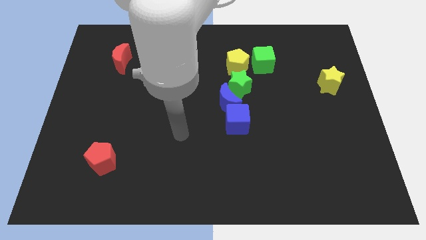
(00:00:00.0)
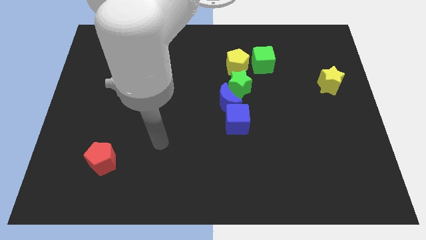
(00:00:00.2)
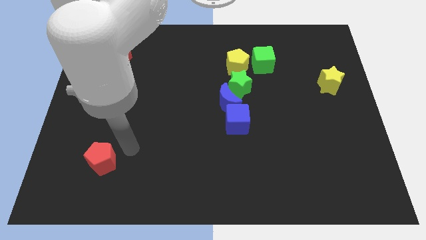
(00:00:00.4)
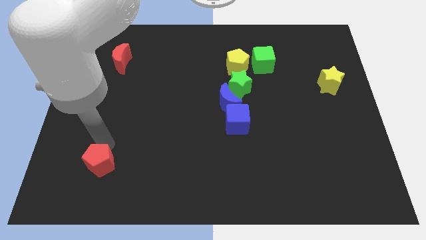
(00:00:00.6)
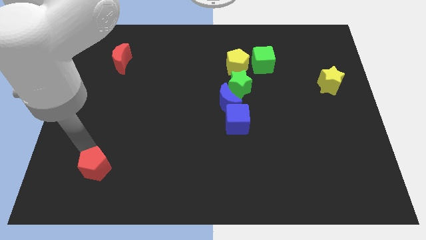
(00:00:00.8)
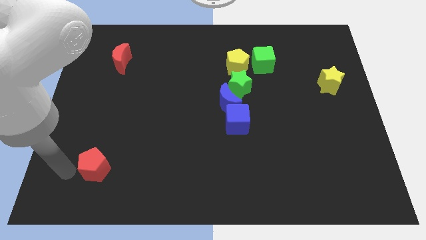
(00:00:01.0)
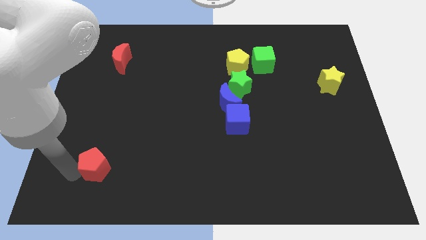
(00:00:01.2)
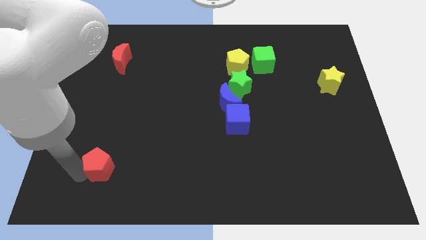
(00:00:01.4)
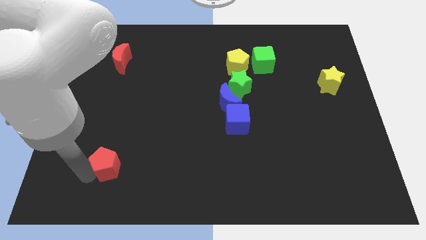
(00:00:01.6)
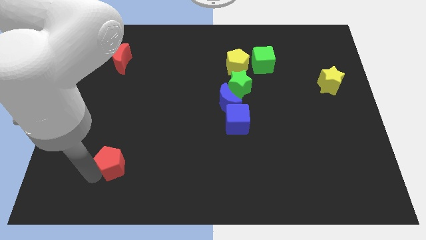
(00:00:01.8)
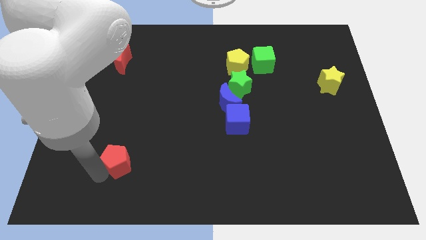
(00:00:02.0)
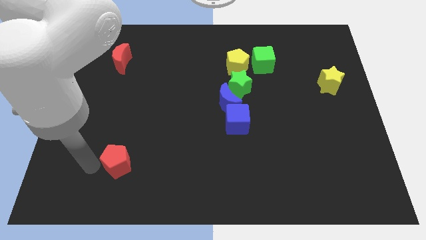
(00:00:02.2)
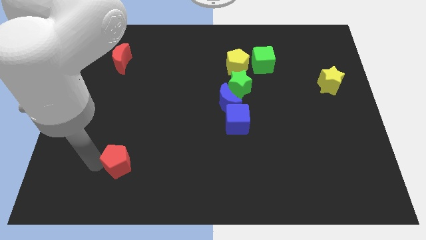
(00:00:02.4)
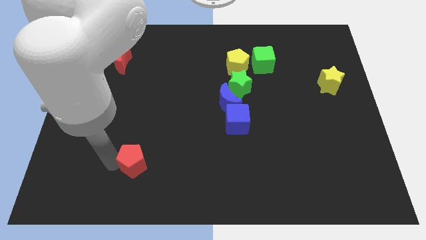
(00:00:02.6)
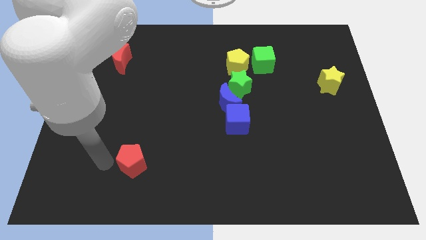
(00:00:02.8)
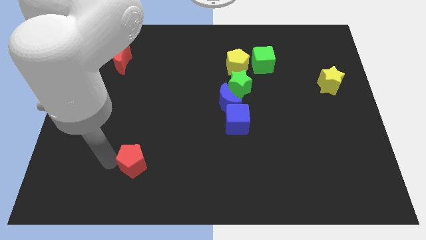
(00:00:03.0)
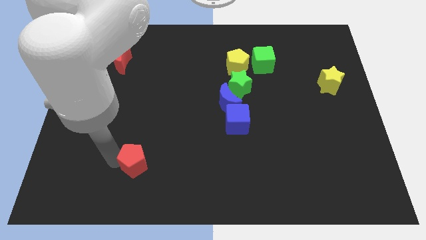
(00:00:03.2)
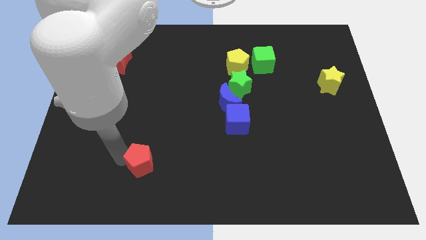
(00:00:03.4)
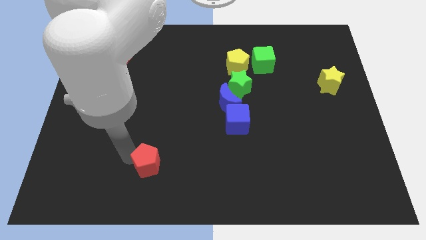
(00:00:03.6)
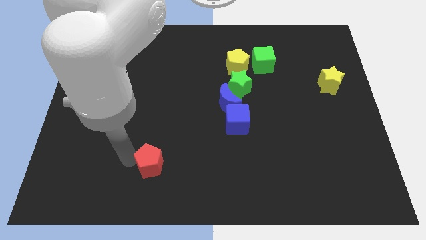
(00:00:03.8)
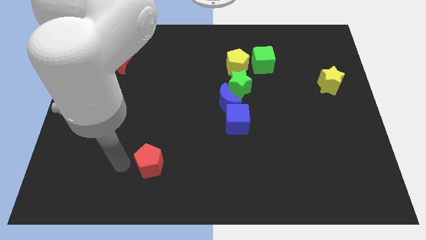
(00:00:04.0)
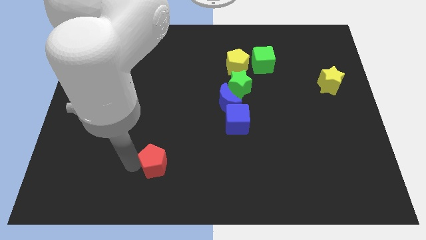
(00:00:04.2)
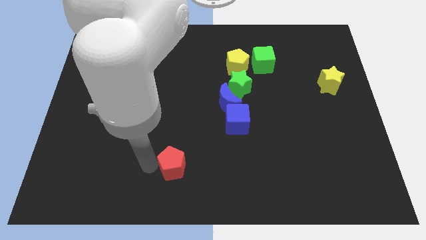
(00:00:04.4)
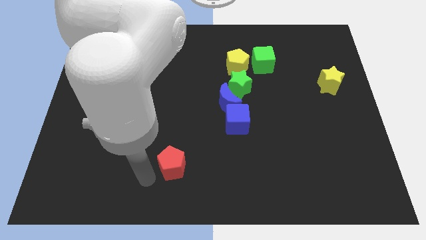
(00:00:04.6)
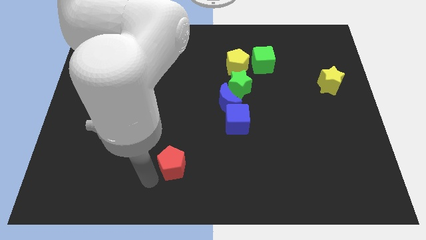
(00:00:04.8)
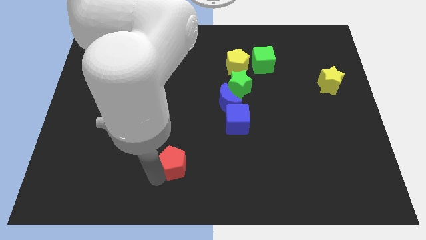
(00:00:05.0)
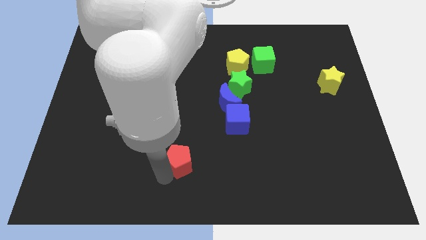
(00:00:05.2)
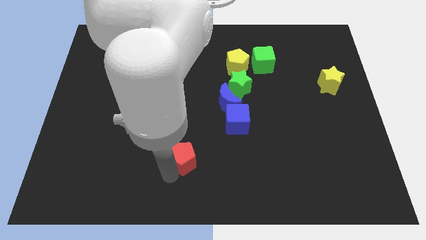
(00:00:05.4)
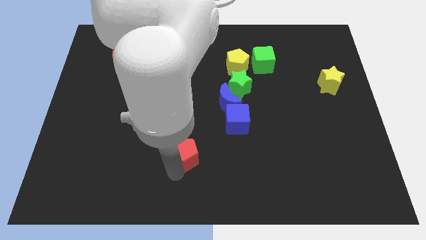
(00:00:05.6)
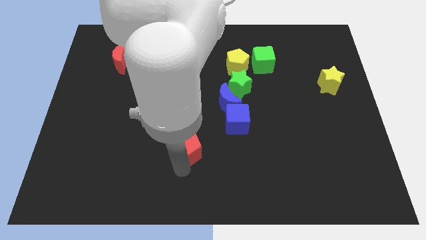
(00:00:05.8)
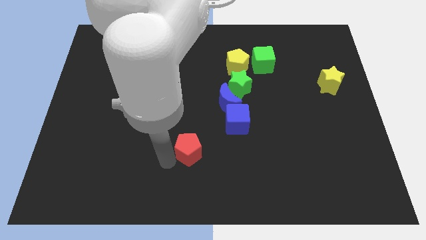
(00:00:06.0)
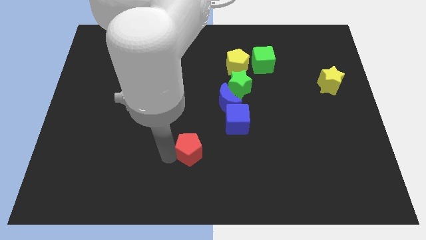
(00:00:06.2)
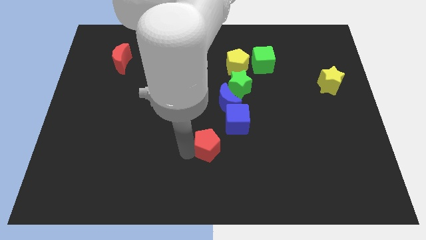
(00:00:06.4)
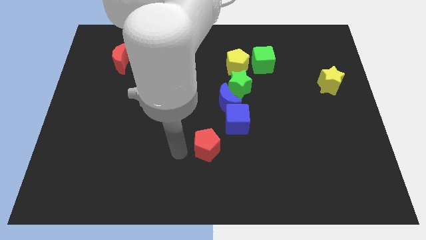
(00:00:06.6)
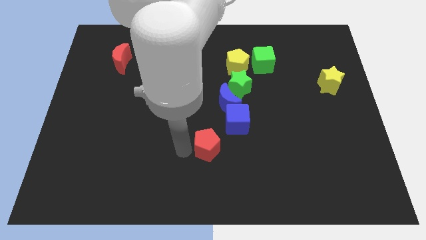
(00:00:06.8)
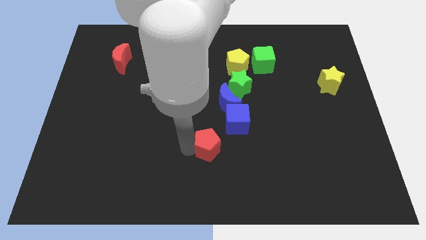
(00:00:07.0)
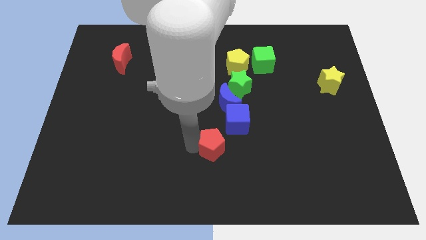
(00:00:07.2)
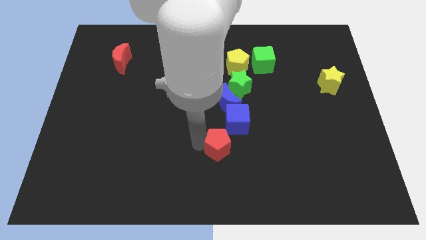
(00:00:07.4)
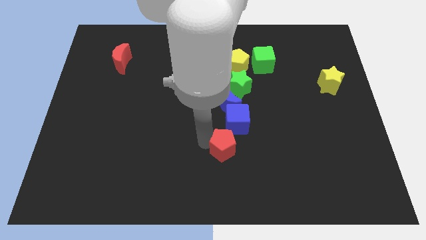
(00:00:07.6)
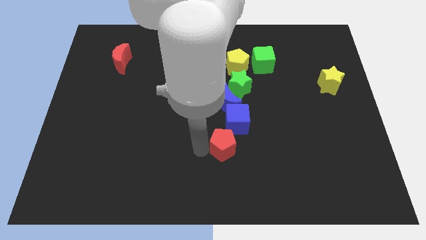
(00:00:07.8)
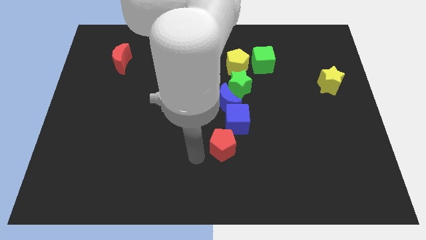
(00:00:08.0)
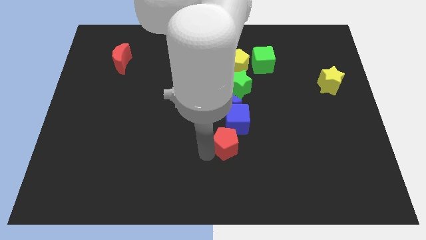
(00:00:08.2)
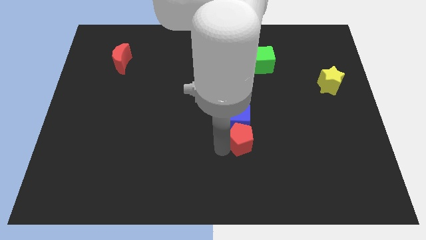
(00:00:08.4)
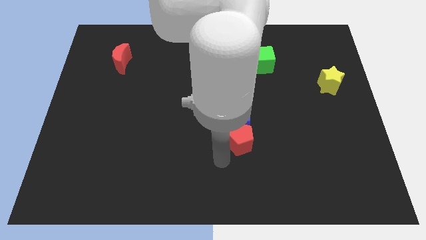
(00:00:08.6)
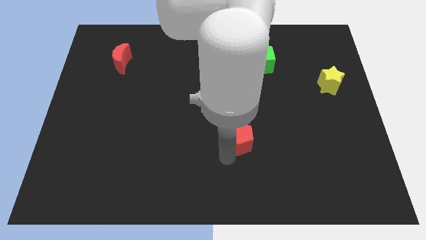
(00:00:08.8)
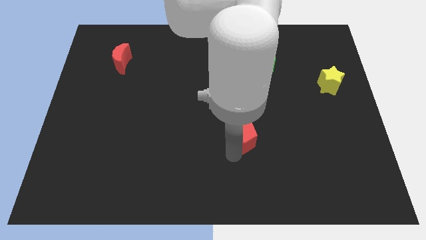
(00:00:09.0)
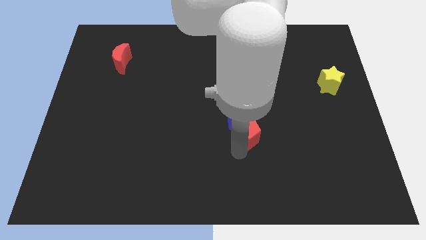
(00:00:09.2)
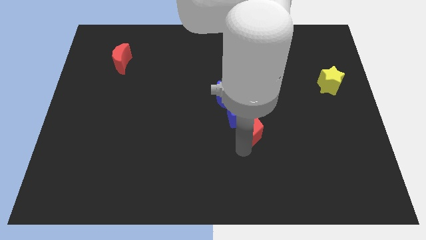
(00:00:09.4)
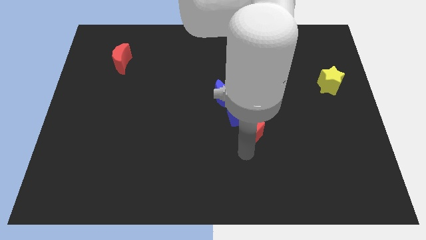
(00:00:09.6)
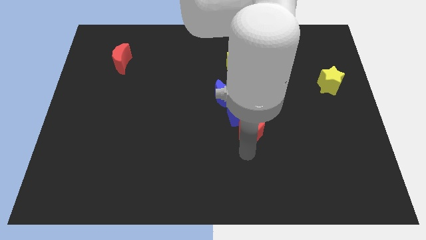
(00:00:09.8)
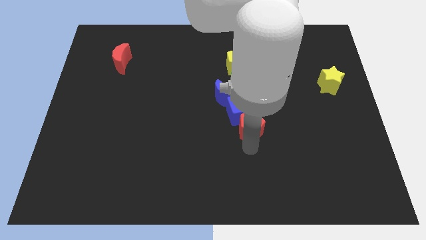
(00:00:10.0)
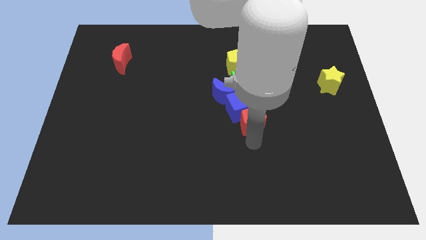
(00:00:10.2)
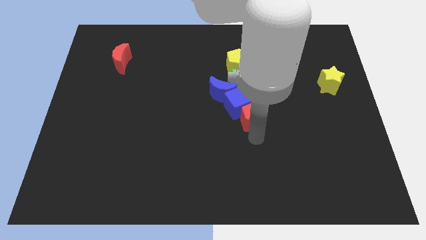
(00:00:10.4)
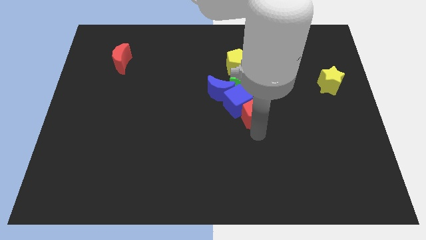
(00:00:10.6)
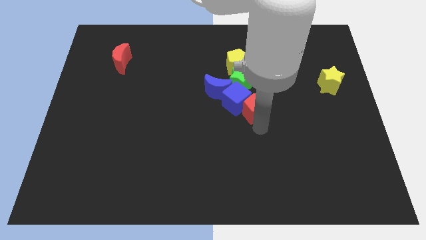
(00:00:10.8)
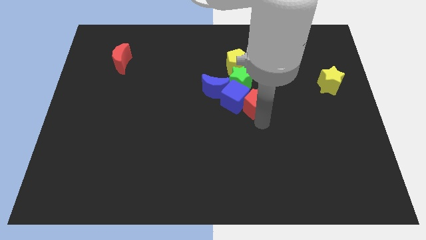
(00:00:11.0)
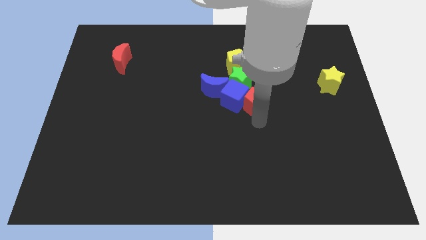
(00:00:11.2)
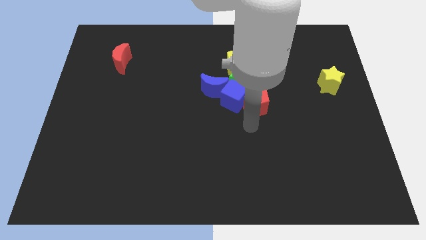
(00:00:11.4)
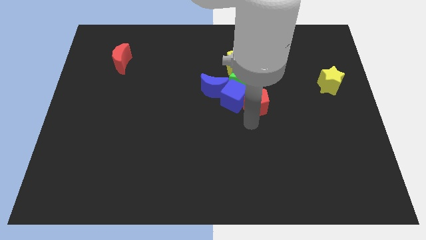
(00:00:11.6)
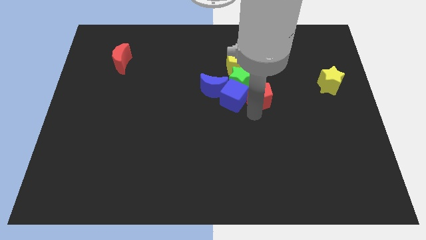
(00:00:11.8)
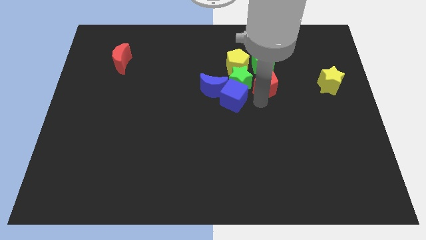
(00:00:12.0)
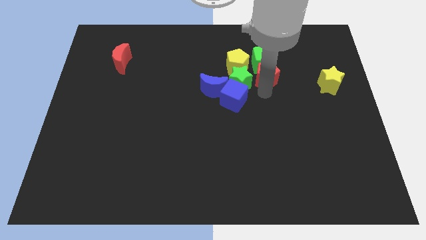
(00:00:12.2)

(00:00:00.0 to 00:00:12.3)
put the red pentagon to the green cube
